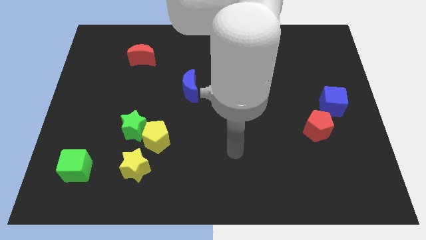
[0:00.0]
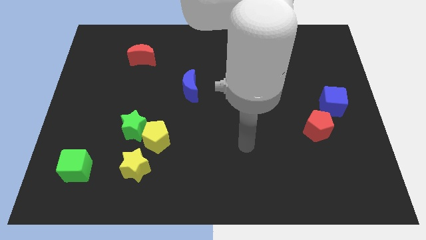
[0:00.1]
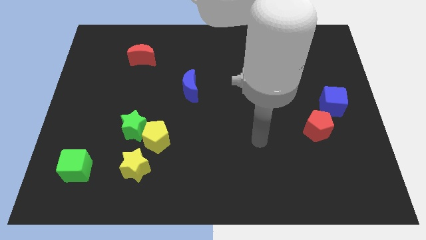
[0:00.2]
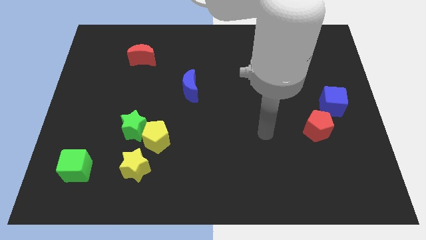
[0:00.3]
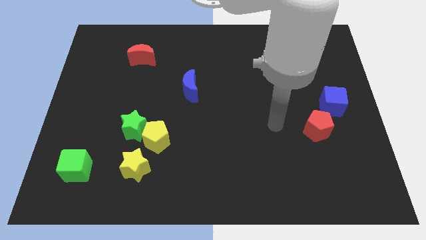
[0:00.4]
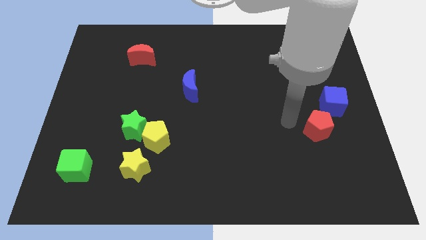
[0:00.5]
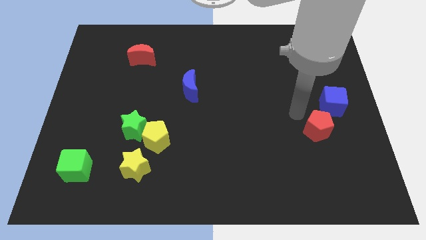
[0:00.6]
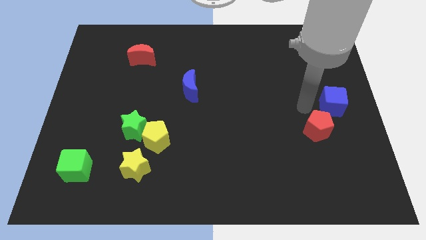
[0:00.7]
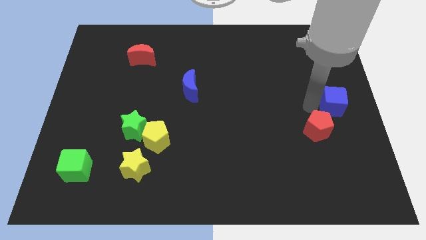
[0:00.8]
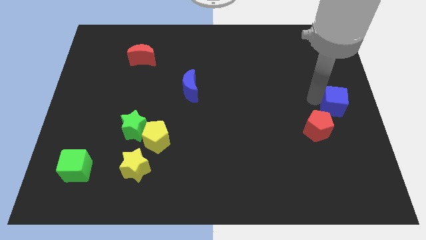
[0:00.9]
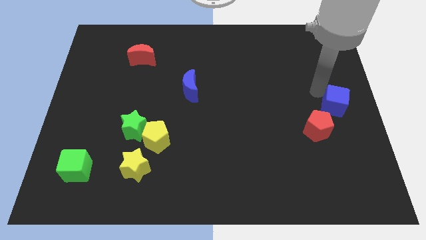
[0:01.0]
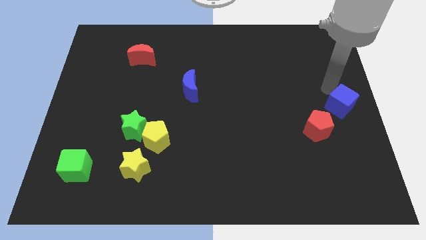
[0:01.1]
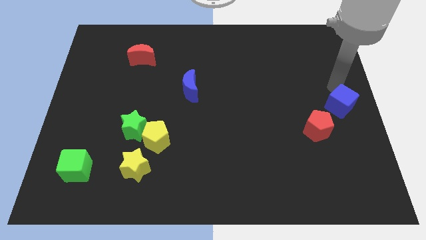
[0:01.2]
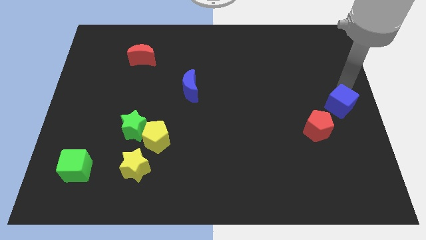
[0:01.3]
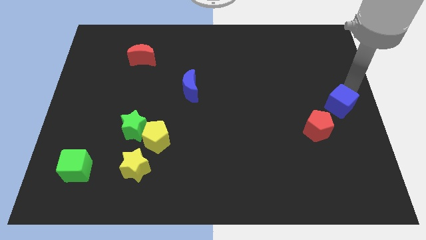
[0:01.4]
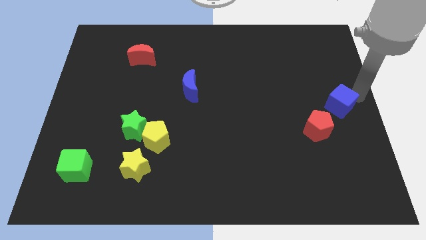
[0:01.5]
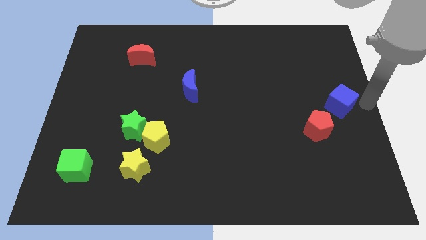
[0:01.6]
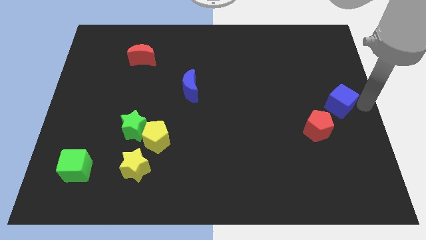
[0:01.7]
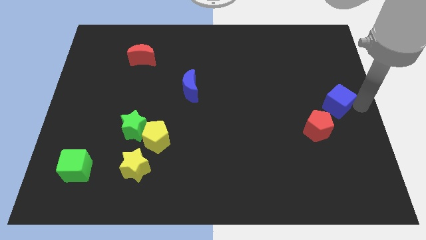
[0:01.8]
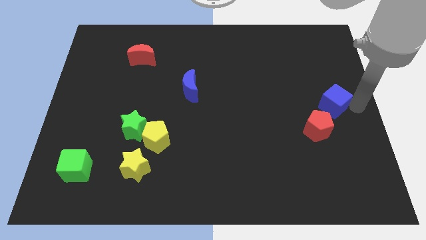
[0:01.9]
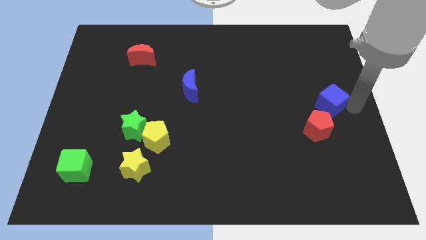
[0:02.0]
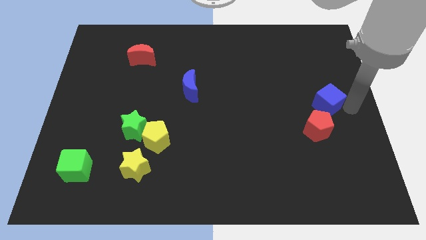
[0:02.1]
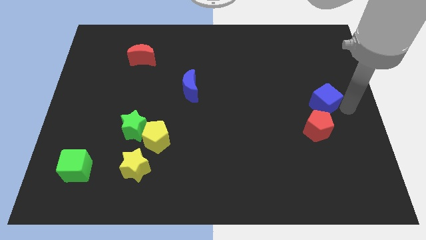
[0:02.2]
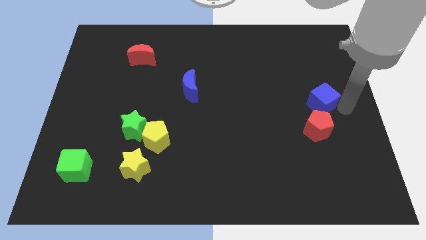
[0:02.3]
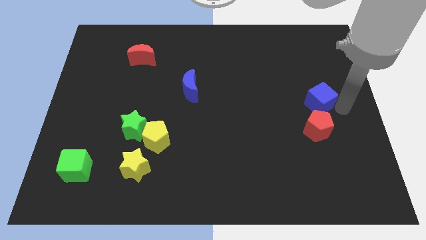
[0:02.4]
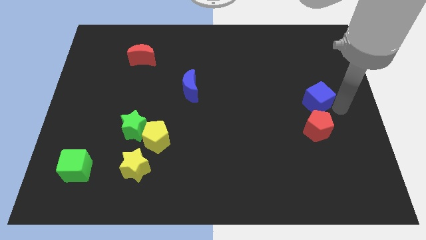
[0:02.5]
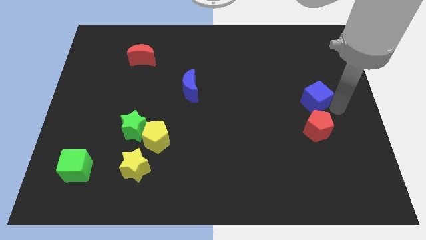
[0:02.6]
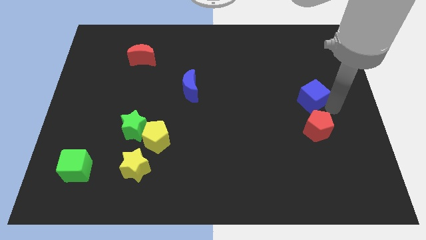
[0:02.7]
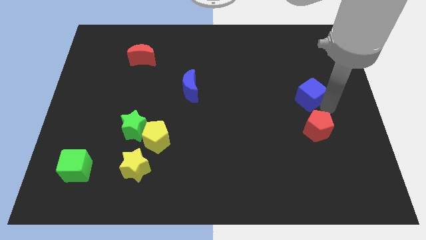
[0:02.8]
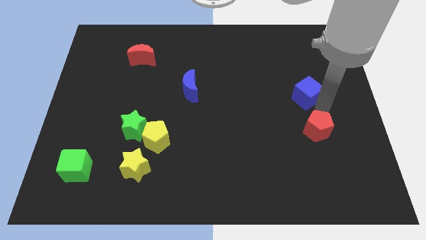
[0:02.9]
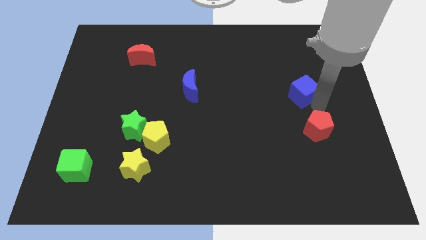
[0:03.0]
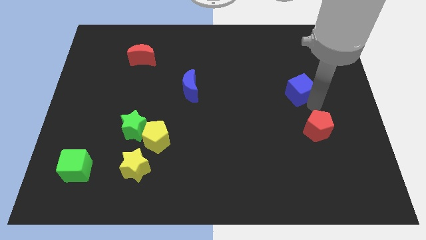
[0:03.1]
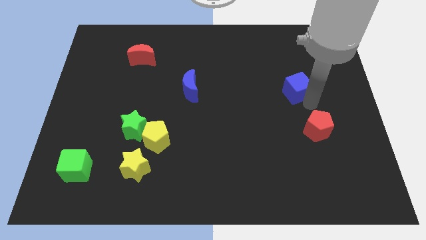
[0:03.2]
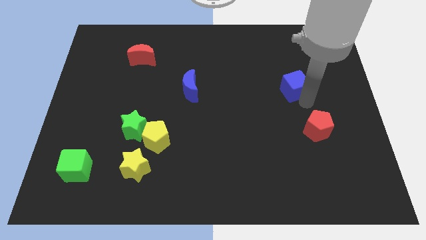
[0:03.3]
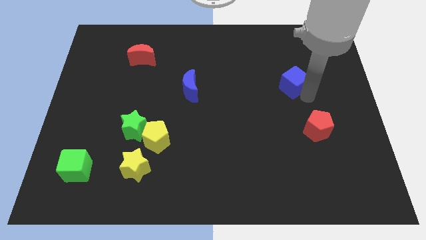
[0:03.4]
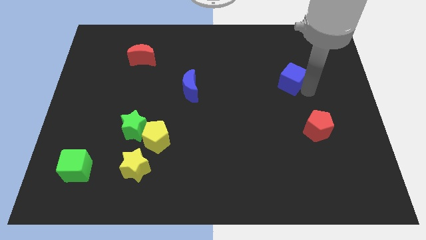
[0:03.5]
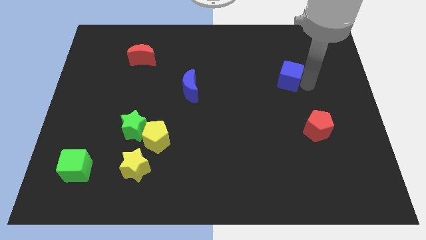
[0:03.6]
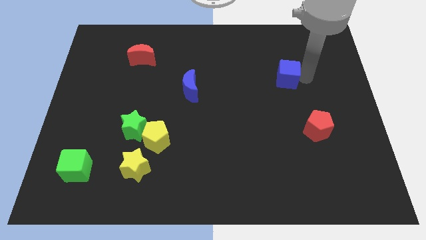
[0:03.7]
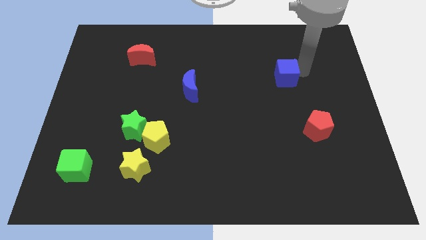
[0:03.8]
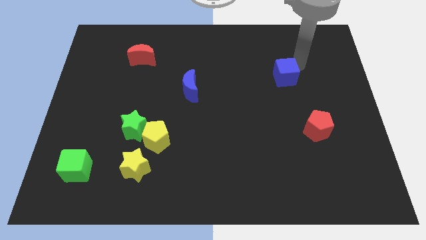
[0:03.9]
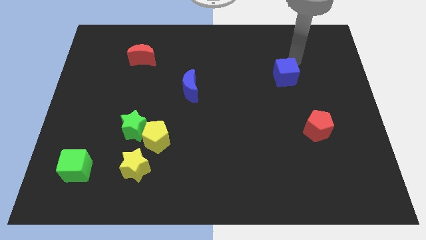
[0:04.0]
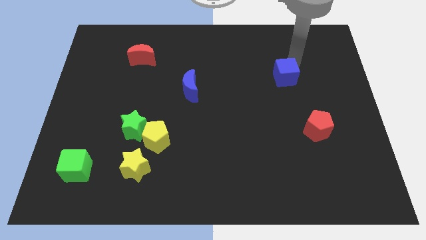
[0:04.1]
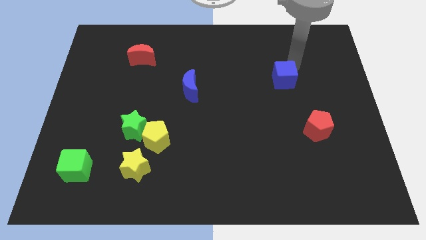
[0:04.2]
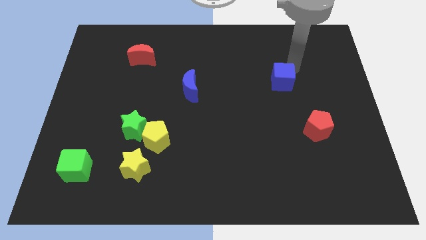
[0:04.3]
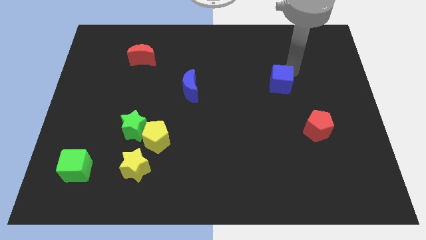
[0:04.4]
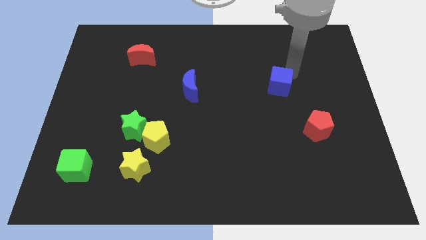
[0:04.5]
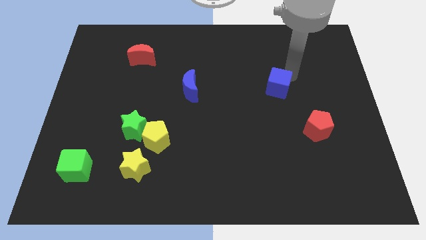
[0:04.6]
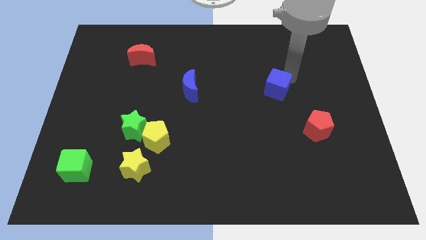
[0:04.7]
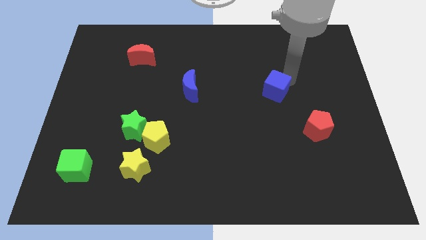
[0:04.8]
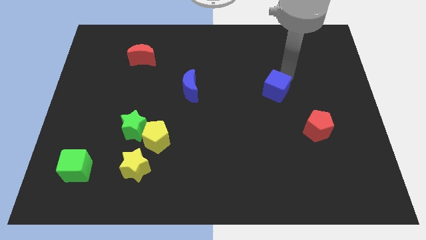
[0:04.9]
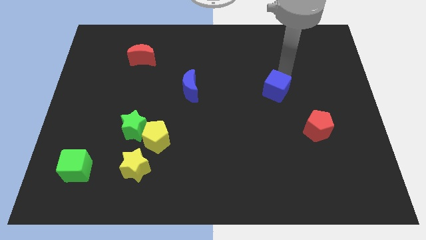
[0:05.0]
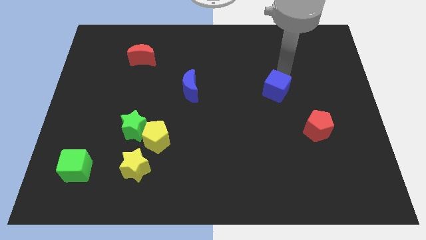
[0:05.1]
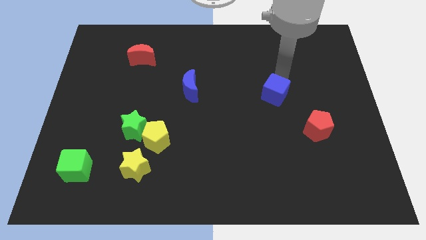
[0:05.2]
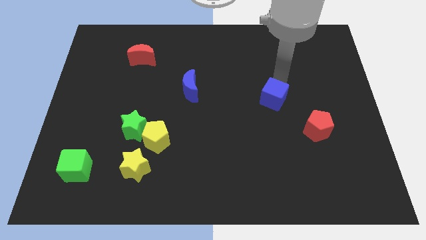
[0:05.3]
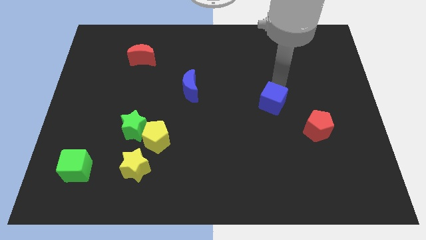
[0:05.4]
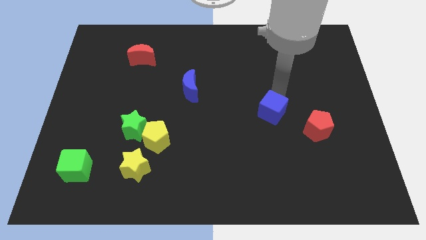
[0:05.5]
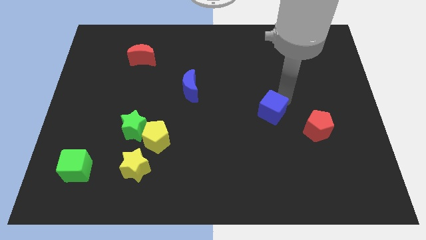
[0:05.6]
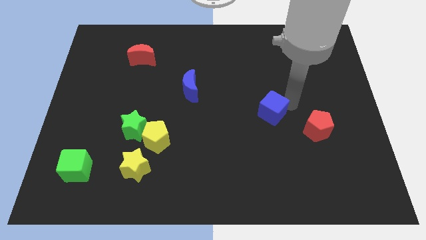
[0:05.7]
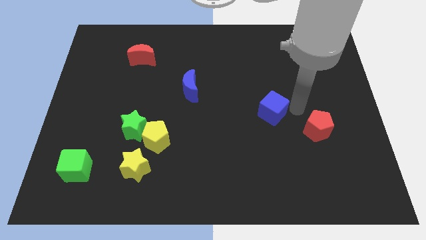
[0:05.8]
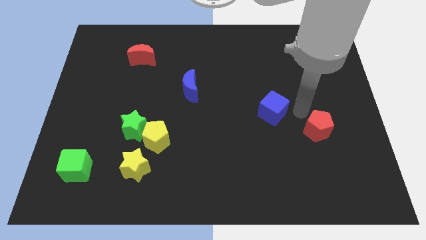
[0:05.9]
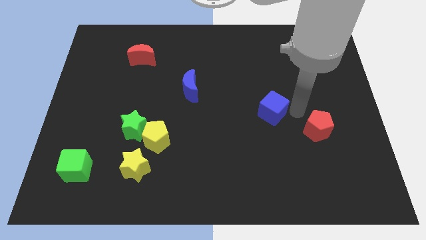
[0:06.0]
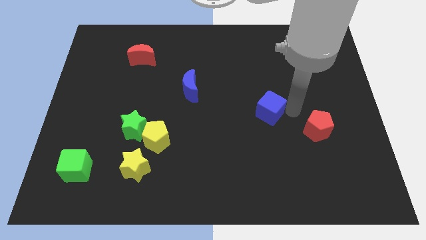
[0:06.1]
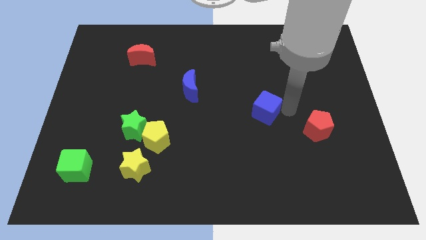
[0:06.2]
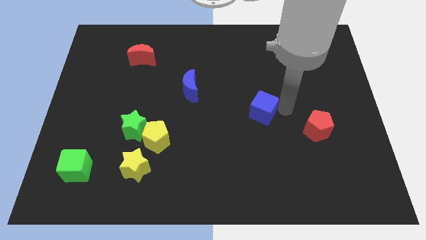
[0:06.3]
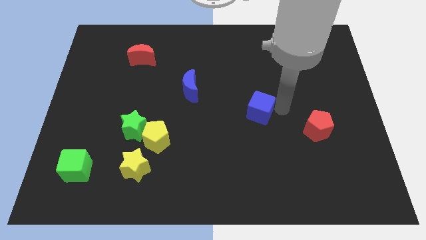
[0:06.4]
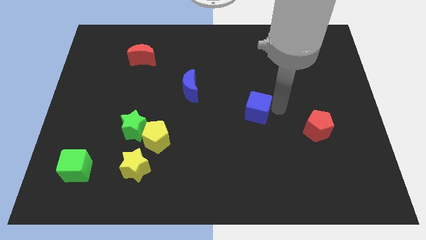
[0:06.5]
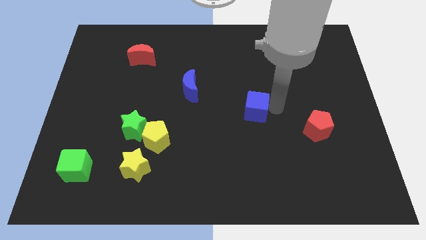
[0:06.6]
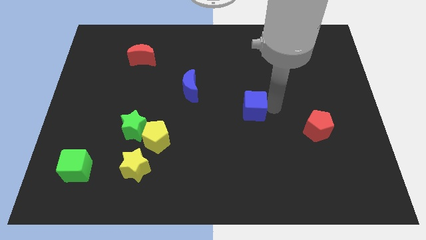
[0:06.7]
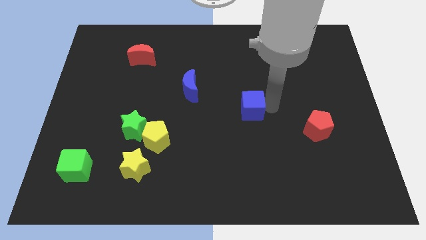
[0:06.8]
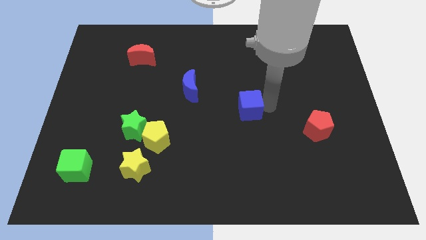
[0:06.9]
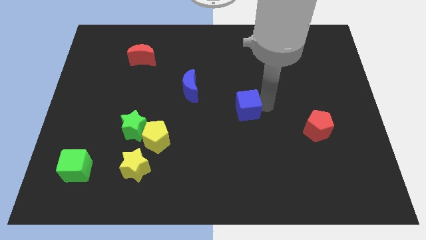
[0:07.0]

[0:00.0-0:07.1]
slide the blue cube to the left

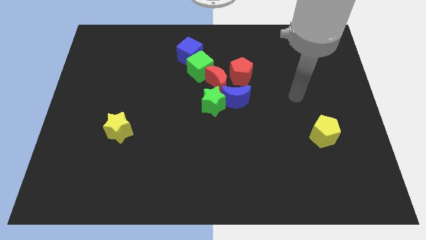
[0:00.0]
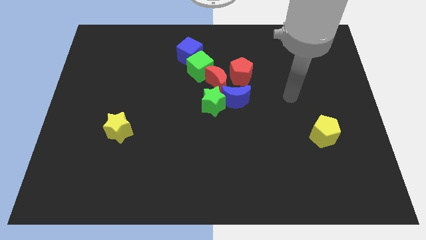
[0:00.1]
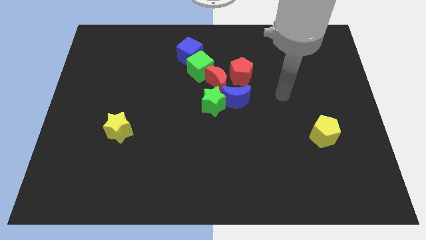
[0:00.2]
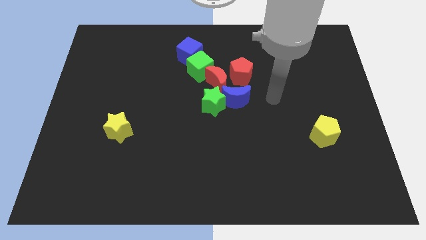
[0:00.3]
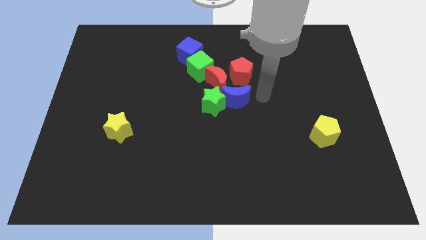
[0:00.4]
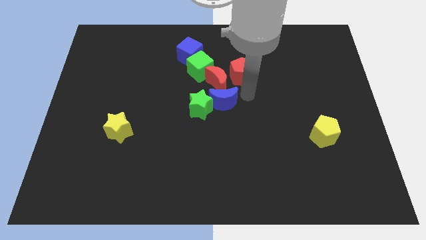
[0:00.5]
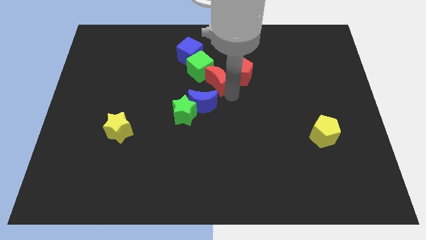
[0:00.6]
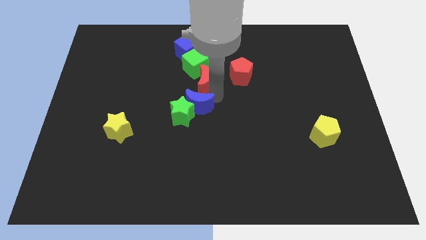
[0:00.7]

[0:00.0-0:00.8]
slightly slide the green star downwards and then to the left
